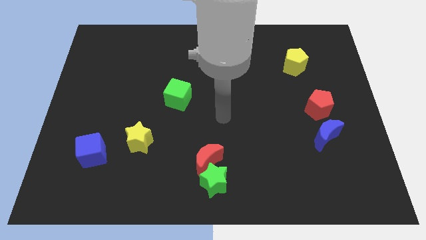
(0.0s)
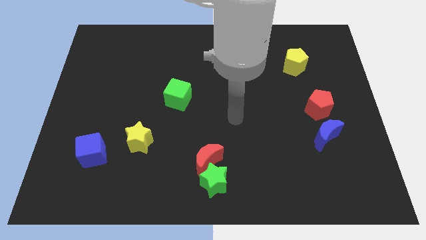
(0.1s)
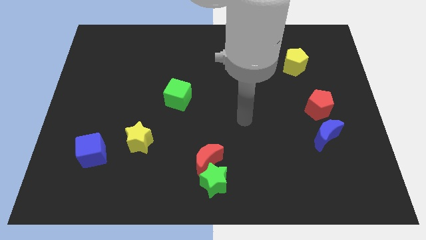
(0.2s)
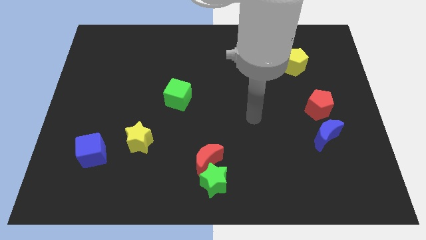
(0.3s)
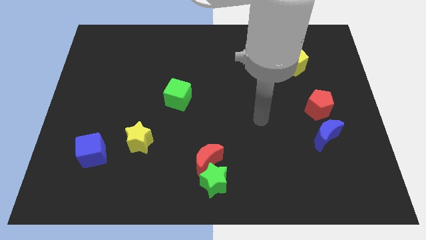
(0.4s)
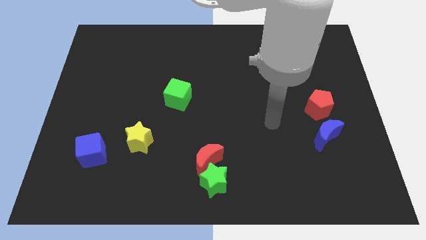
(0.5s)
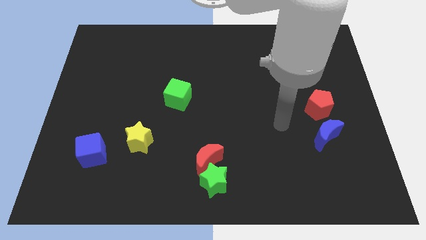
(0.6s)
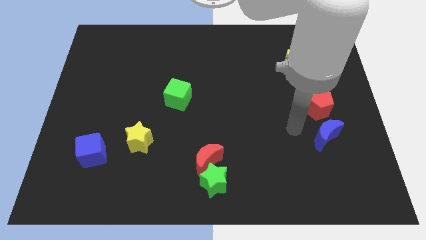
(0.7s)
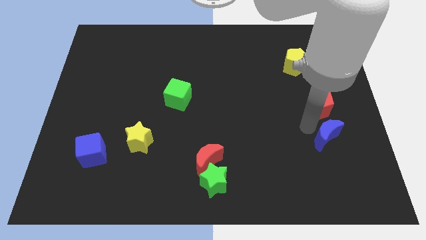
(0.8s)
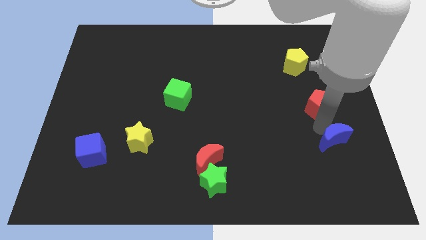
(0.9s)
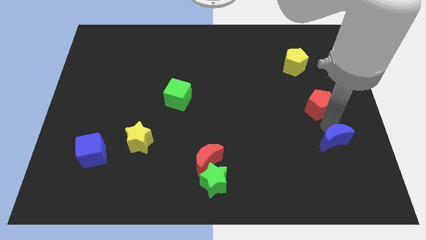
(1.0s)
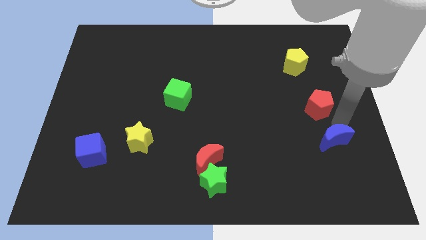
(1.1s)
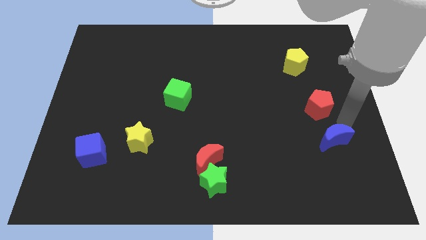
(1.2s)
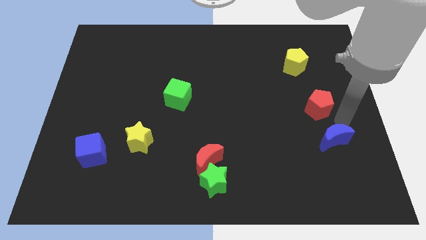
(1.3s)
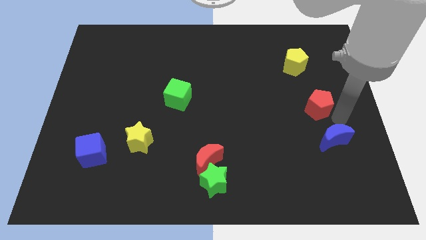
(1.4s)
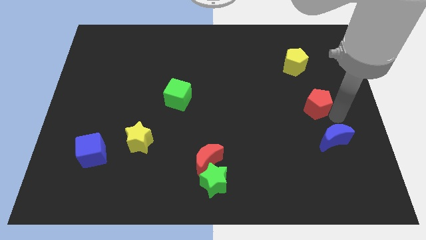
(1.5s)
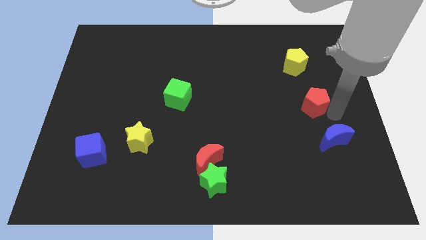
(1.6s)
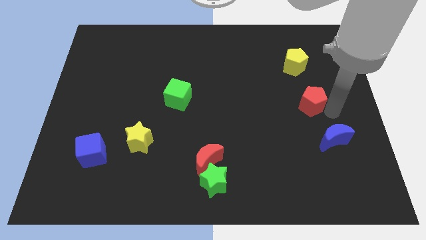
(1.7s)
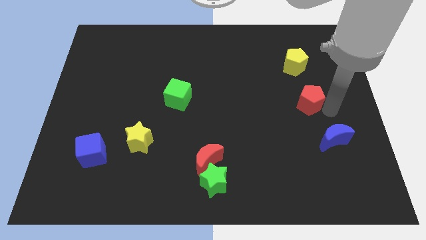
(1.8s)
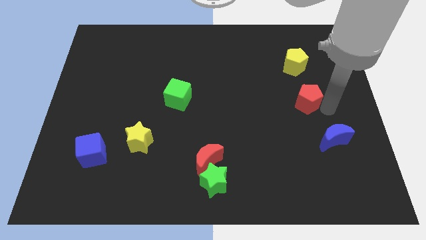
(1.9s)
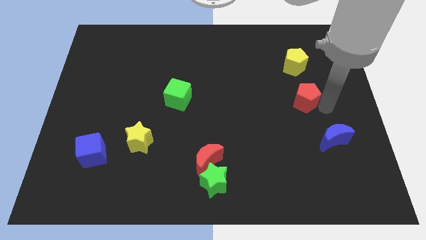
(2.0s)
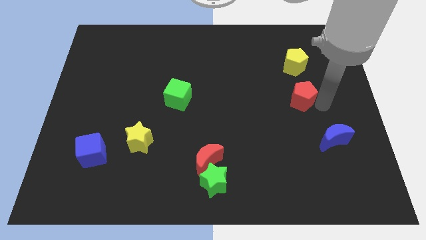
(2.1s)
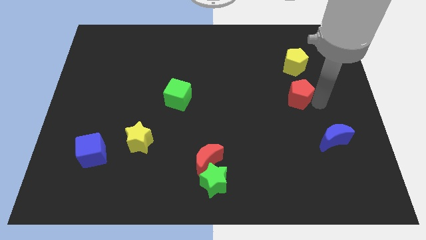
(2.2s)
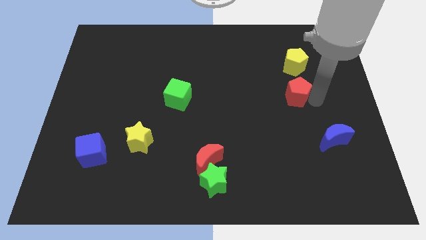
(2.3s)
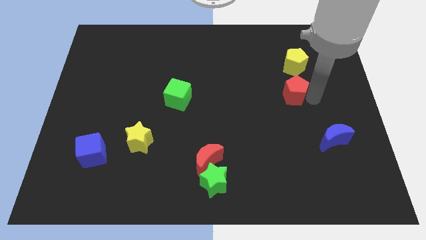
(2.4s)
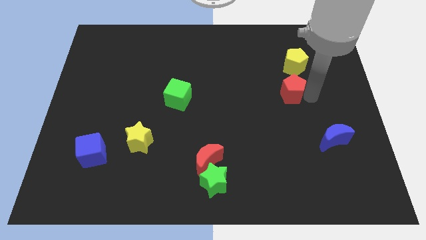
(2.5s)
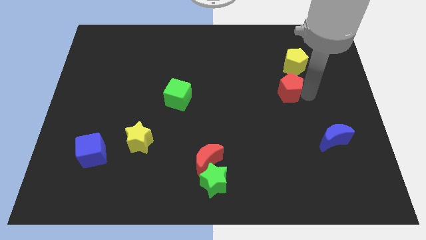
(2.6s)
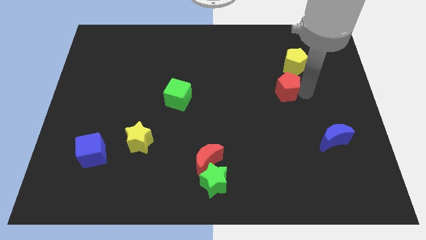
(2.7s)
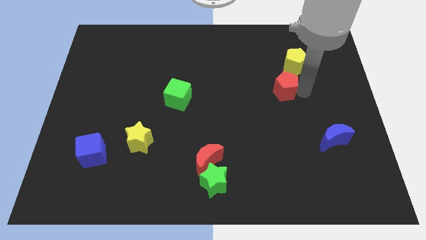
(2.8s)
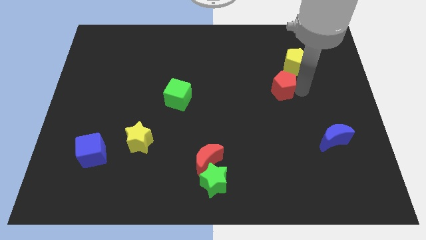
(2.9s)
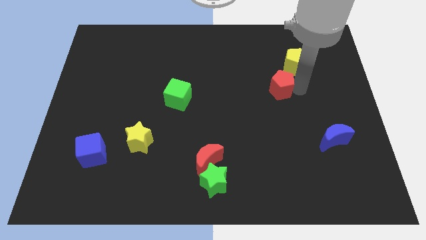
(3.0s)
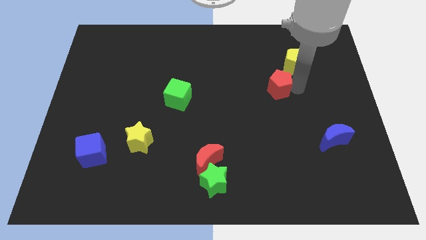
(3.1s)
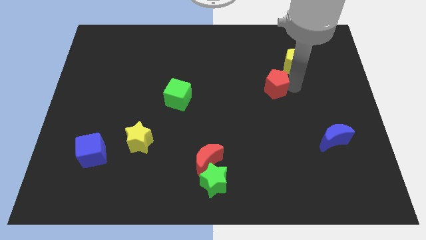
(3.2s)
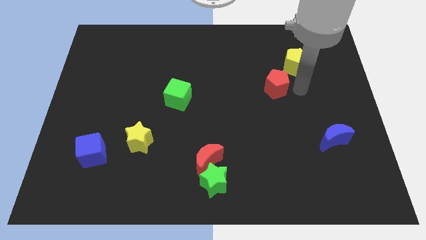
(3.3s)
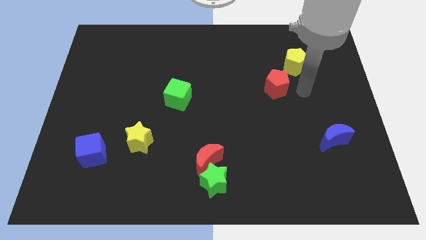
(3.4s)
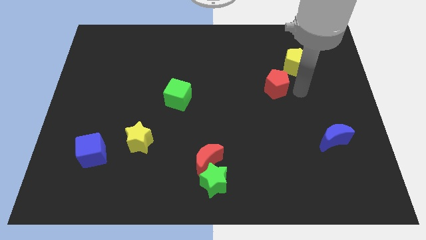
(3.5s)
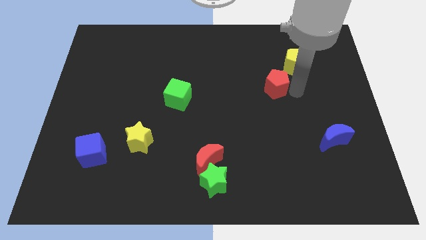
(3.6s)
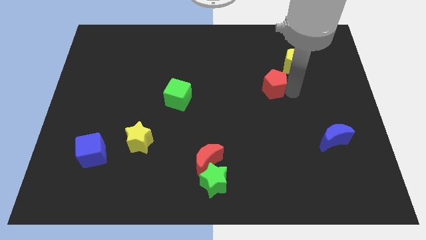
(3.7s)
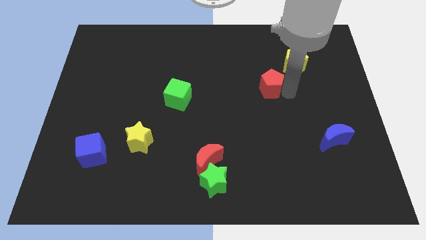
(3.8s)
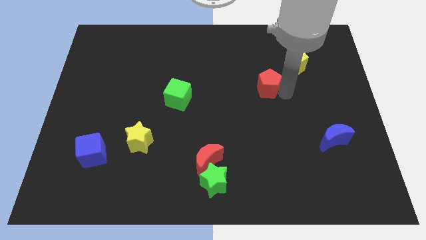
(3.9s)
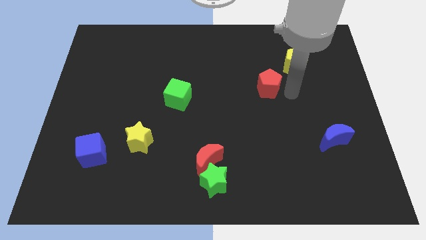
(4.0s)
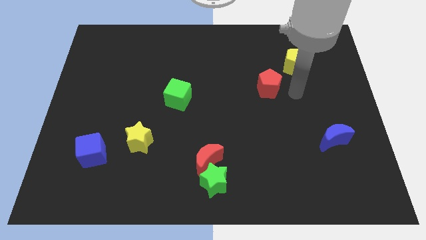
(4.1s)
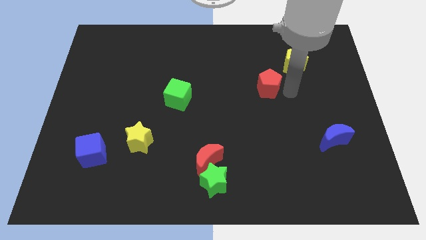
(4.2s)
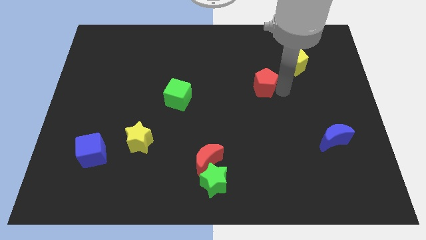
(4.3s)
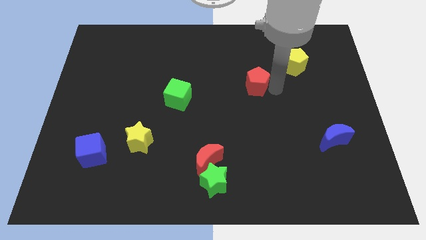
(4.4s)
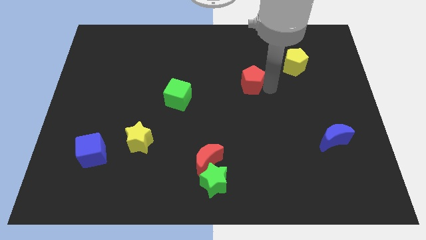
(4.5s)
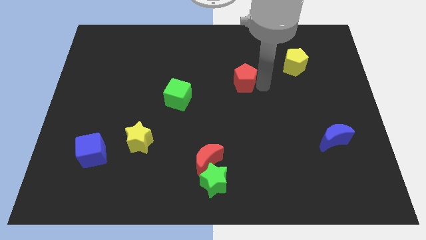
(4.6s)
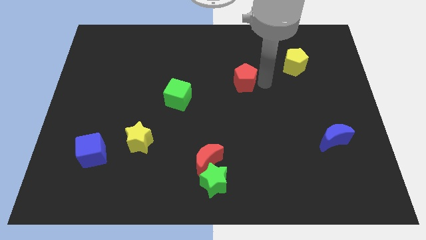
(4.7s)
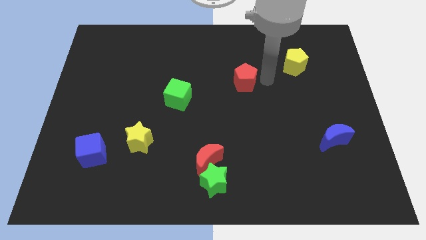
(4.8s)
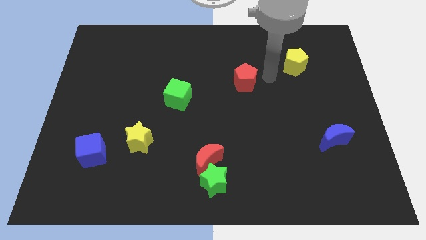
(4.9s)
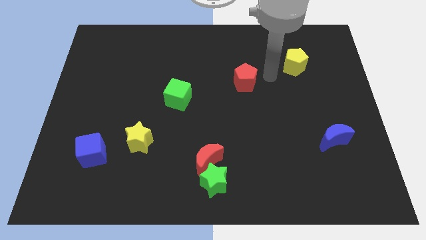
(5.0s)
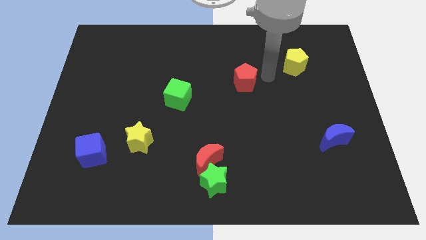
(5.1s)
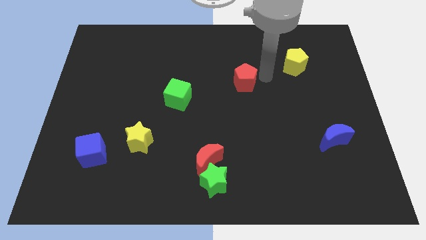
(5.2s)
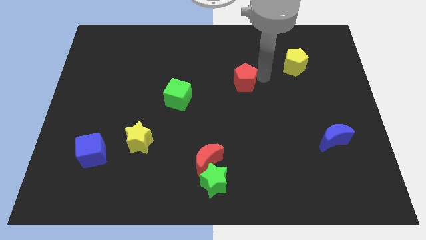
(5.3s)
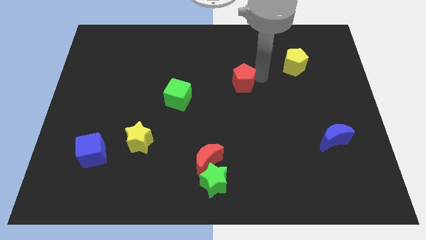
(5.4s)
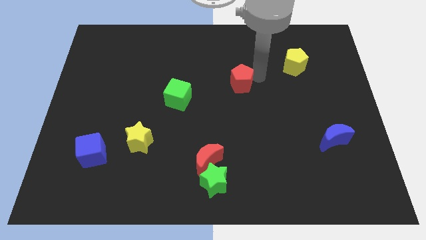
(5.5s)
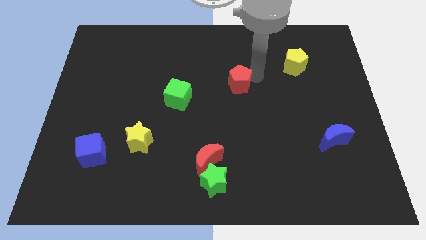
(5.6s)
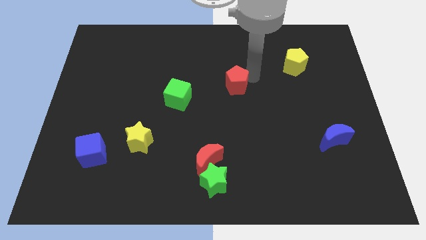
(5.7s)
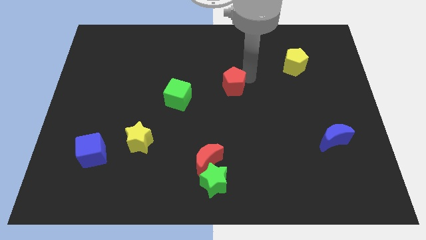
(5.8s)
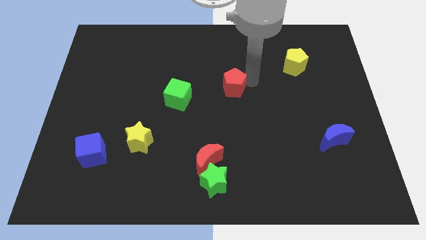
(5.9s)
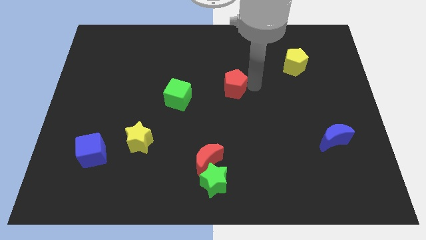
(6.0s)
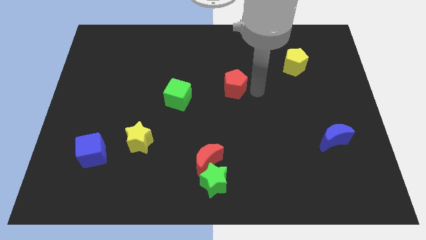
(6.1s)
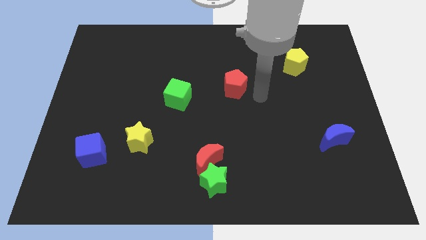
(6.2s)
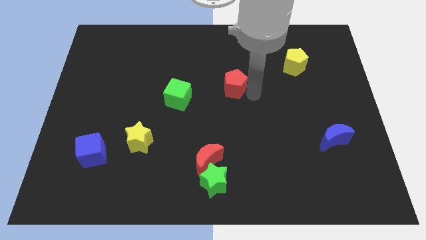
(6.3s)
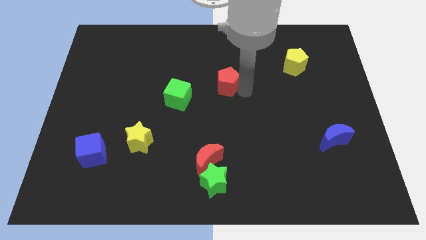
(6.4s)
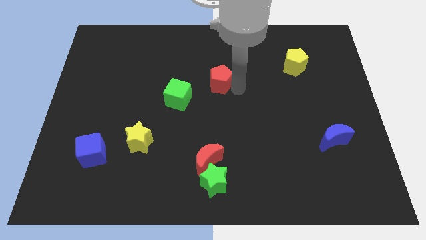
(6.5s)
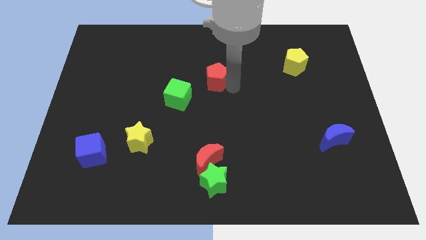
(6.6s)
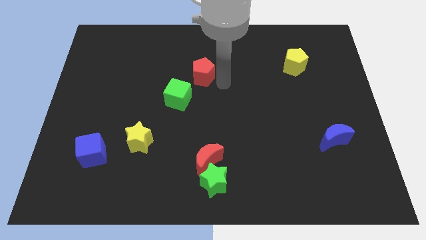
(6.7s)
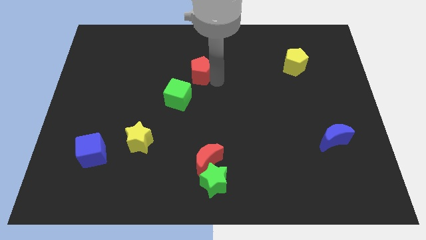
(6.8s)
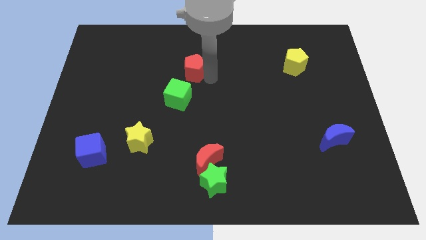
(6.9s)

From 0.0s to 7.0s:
move the red pentagon to the top side of the green cube
